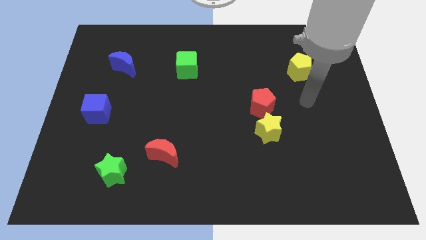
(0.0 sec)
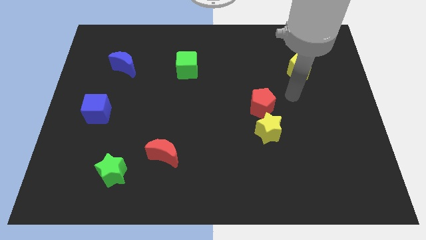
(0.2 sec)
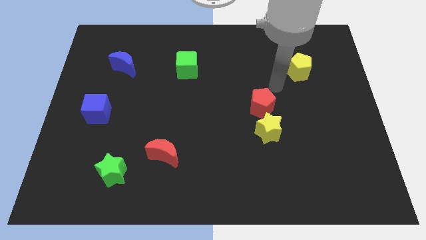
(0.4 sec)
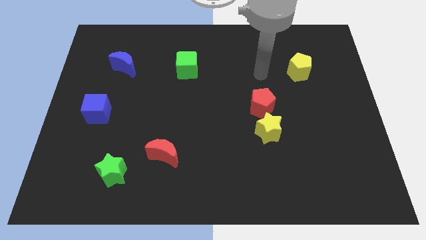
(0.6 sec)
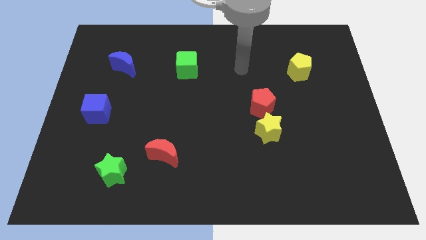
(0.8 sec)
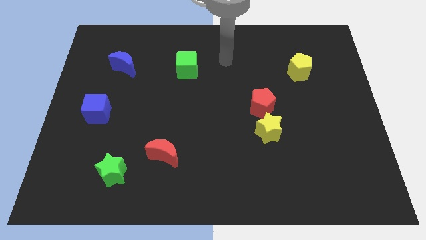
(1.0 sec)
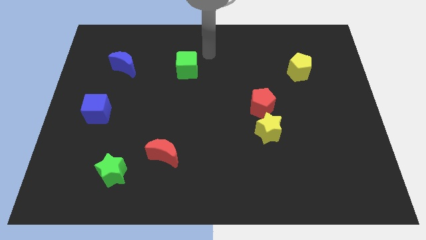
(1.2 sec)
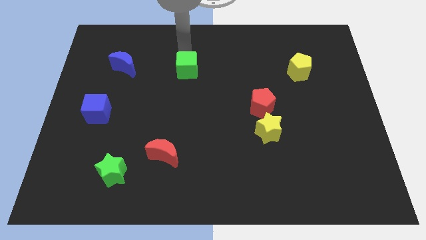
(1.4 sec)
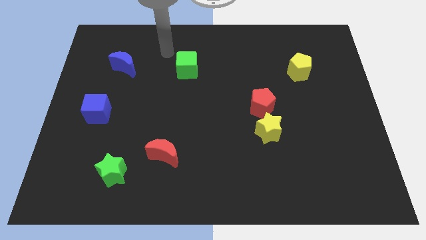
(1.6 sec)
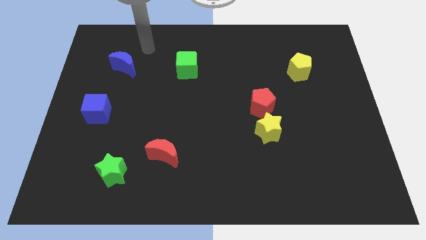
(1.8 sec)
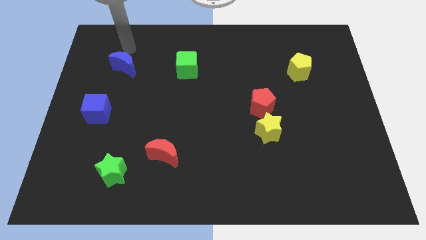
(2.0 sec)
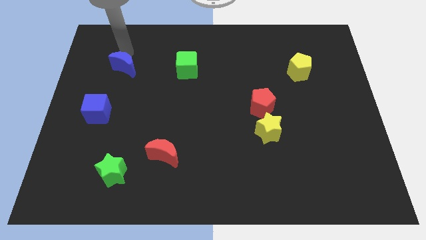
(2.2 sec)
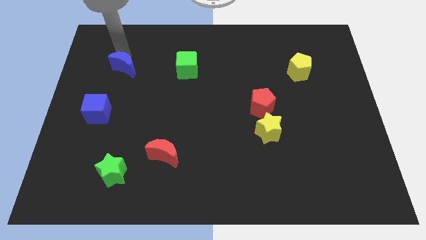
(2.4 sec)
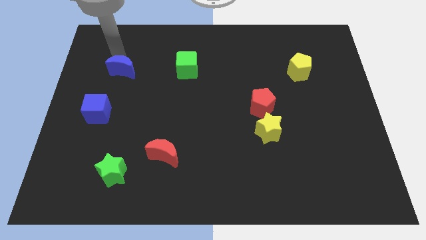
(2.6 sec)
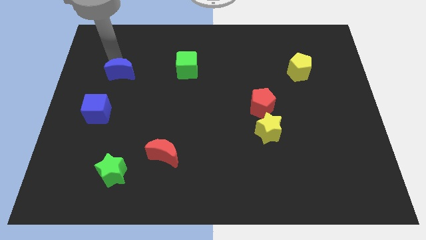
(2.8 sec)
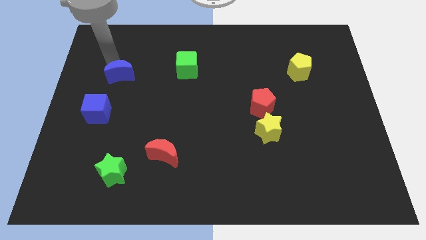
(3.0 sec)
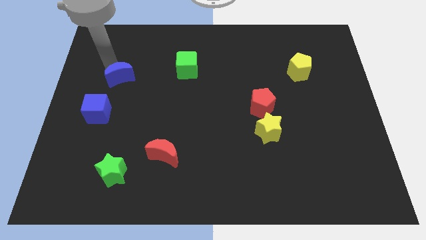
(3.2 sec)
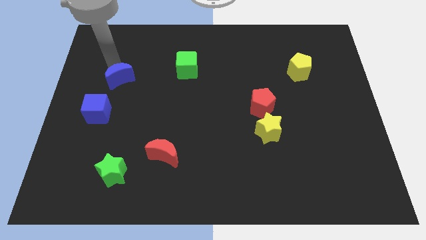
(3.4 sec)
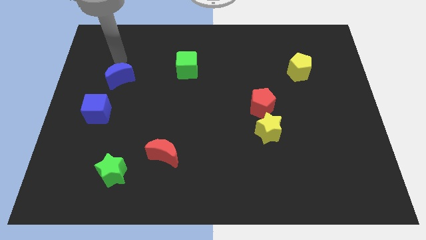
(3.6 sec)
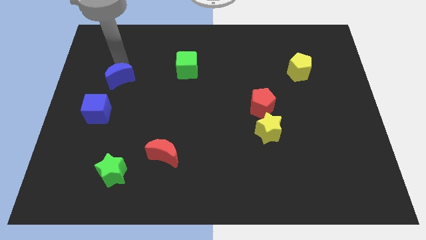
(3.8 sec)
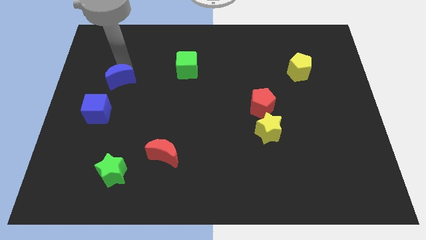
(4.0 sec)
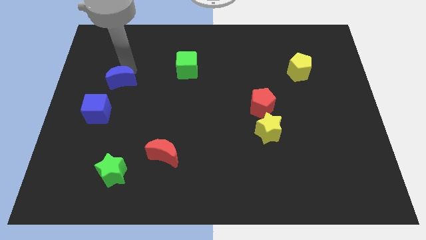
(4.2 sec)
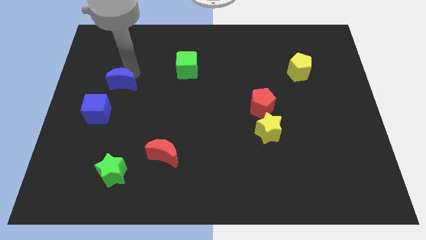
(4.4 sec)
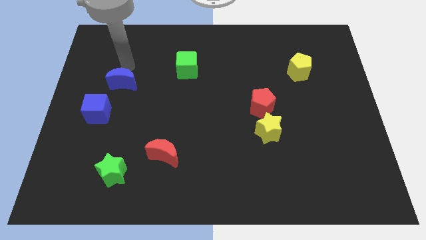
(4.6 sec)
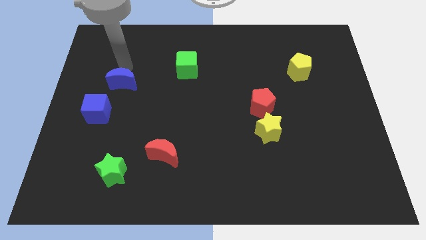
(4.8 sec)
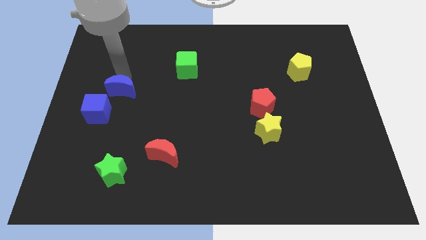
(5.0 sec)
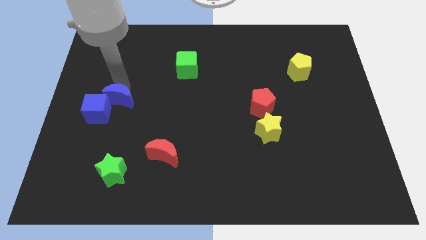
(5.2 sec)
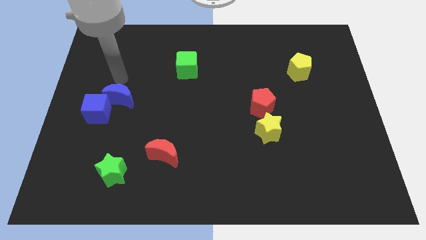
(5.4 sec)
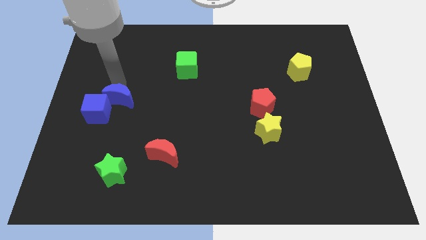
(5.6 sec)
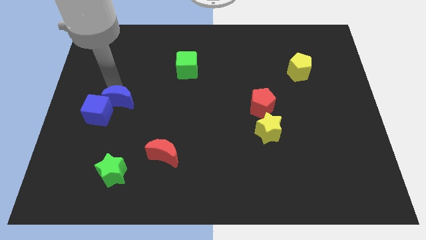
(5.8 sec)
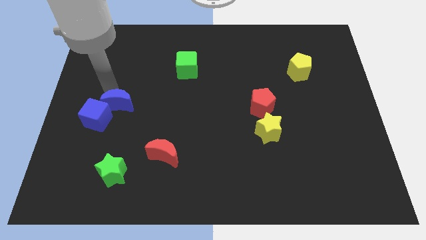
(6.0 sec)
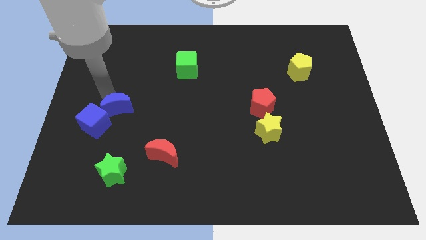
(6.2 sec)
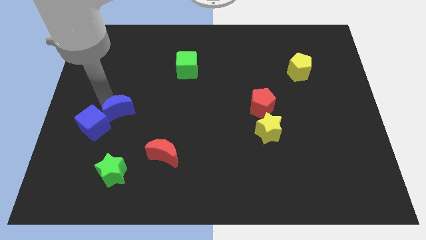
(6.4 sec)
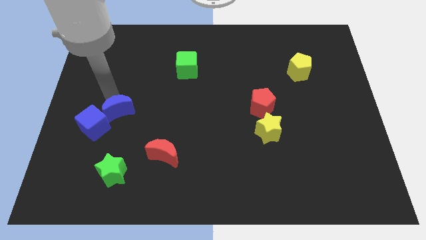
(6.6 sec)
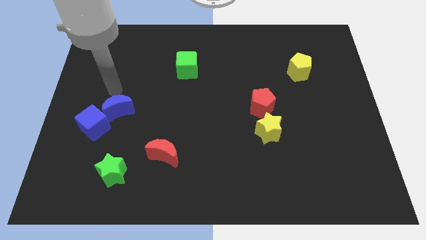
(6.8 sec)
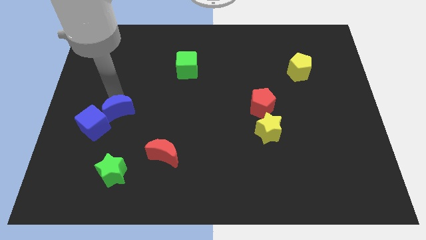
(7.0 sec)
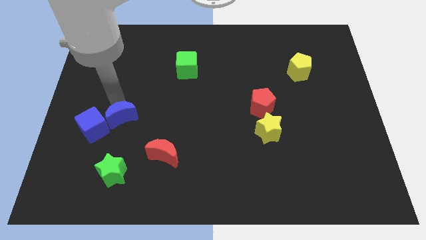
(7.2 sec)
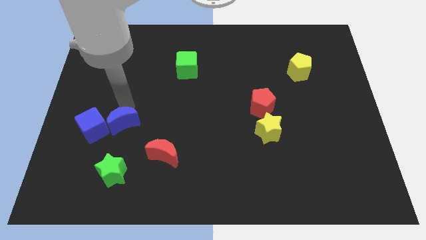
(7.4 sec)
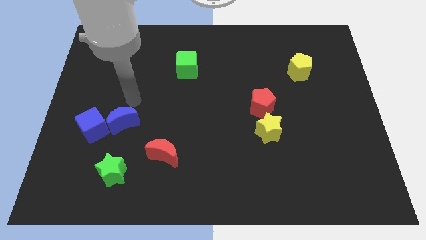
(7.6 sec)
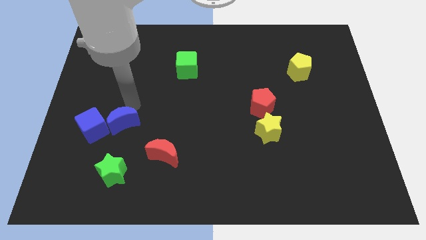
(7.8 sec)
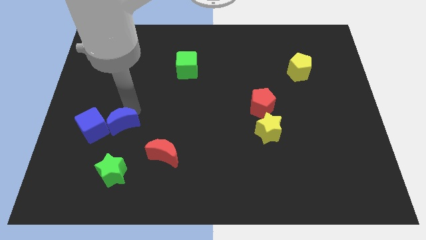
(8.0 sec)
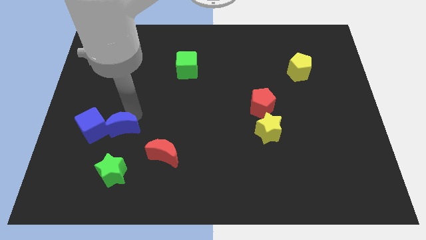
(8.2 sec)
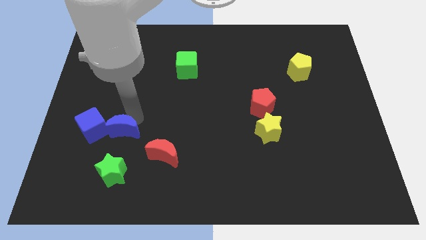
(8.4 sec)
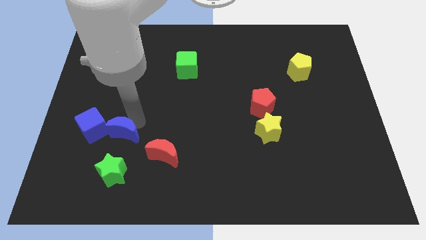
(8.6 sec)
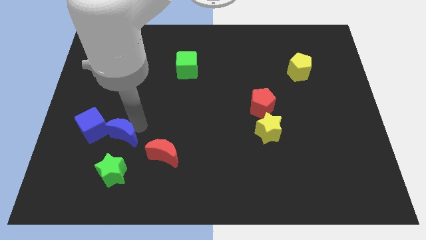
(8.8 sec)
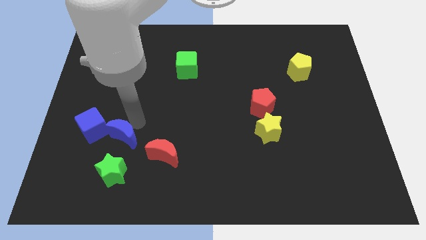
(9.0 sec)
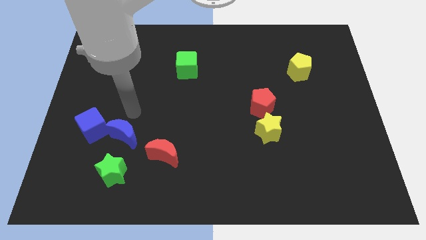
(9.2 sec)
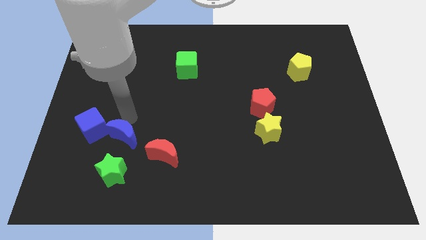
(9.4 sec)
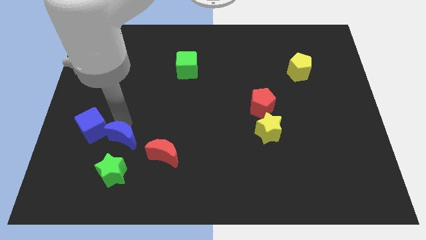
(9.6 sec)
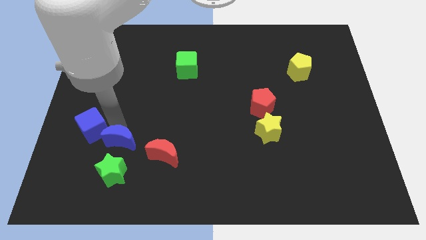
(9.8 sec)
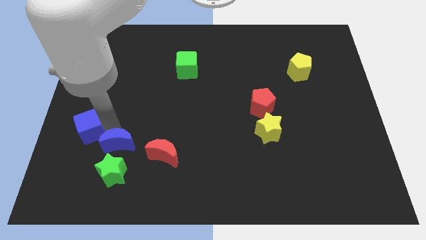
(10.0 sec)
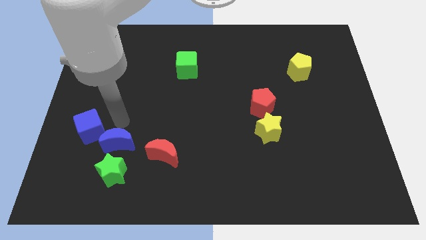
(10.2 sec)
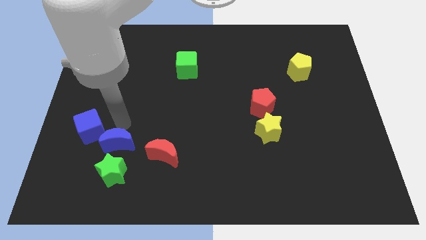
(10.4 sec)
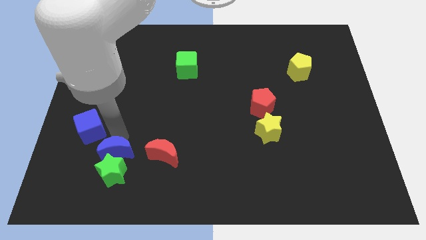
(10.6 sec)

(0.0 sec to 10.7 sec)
push the blue moon towards the green star

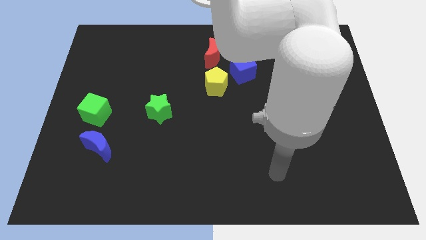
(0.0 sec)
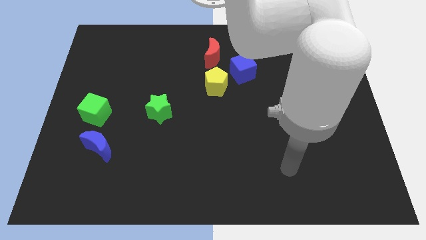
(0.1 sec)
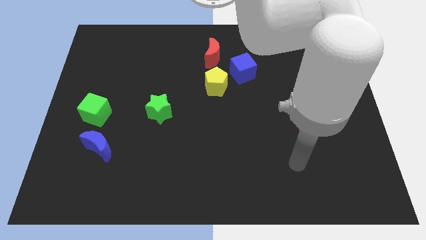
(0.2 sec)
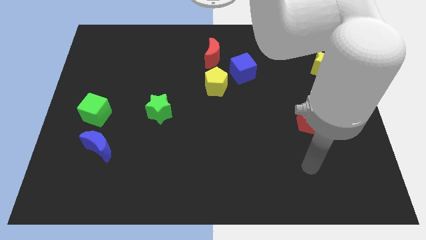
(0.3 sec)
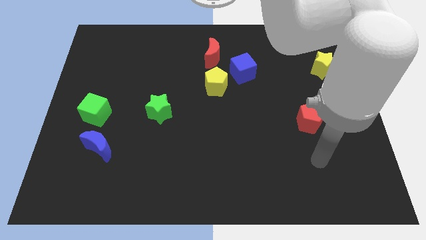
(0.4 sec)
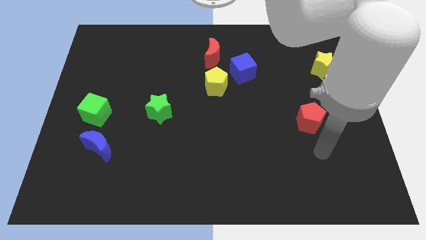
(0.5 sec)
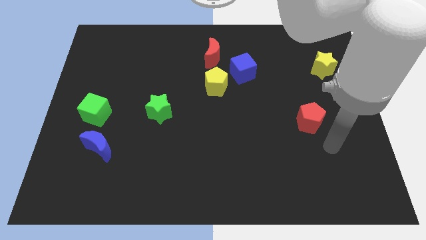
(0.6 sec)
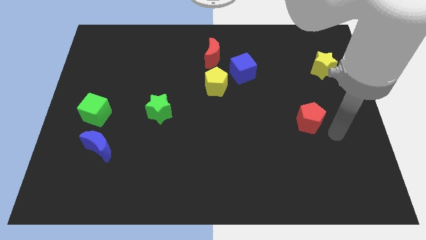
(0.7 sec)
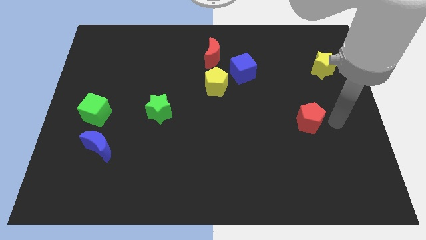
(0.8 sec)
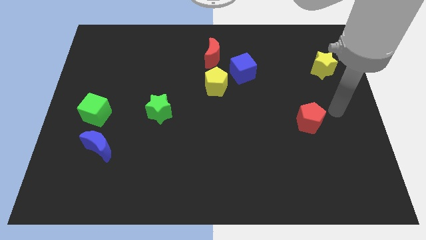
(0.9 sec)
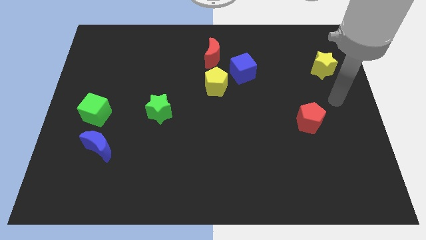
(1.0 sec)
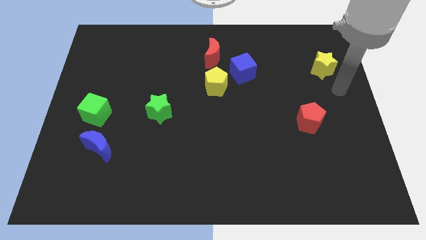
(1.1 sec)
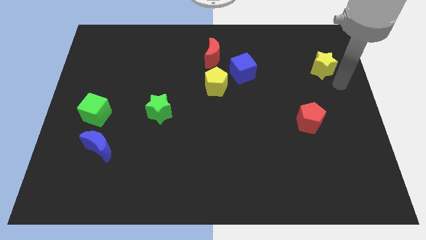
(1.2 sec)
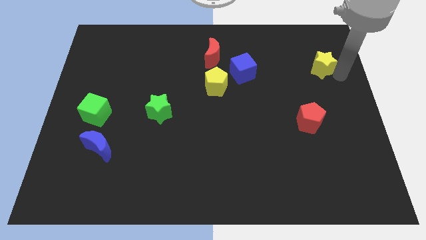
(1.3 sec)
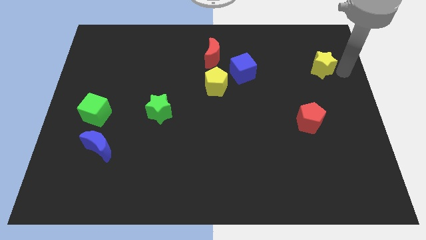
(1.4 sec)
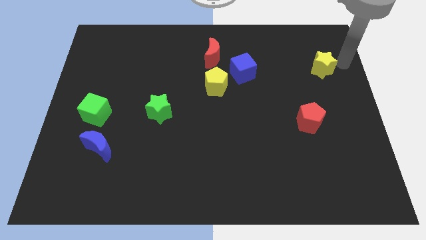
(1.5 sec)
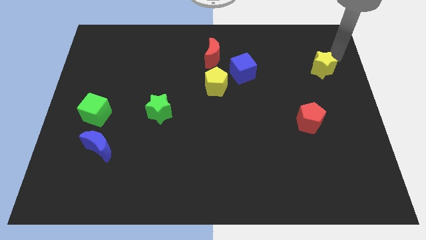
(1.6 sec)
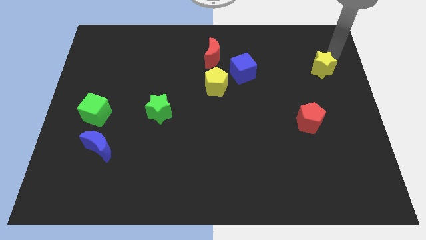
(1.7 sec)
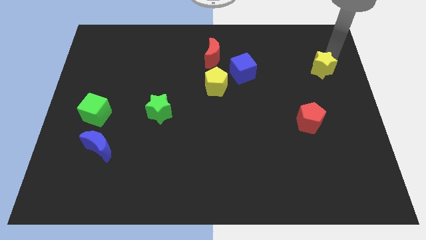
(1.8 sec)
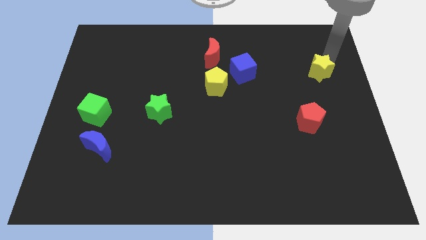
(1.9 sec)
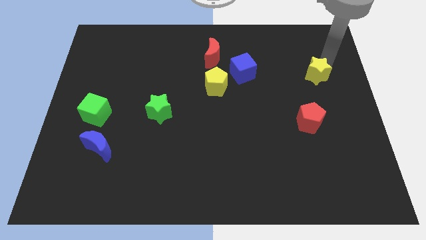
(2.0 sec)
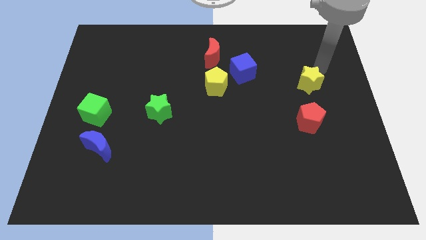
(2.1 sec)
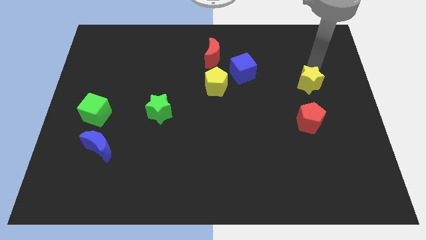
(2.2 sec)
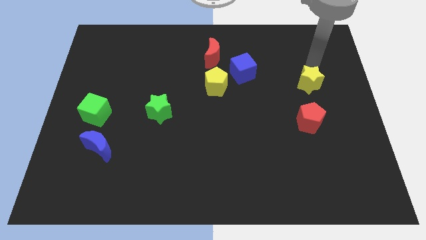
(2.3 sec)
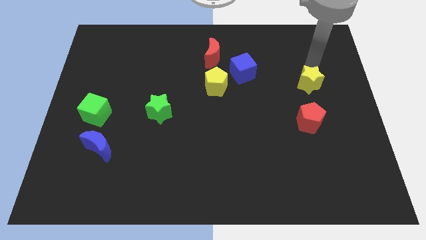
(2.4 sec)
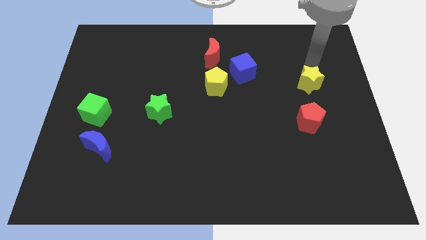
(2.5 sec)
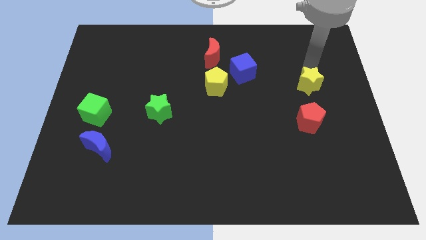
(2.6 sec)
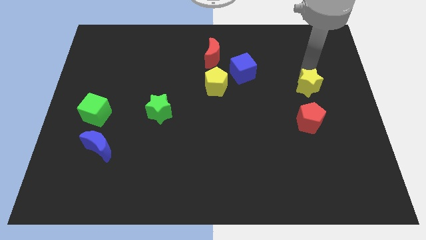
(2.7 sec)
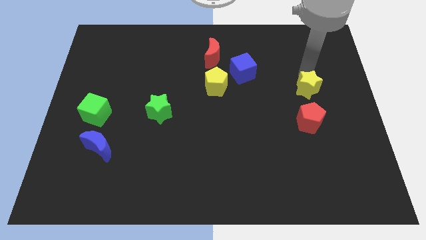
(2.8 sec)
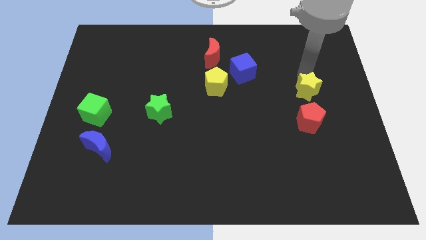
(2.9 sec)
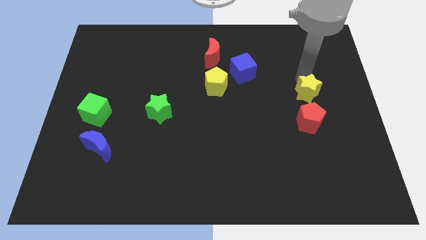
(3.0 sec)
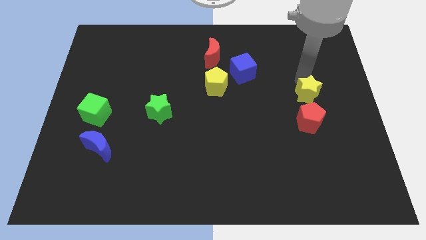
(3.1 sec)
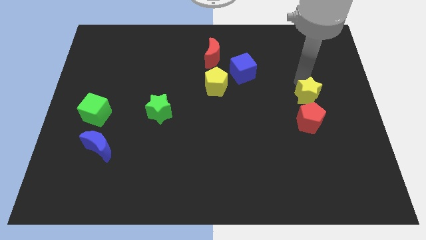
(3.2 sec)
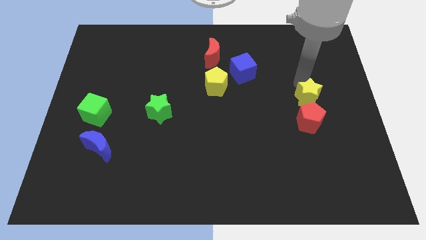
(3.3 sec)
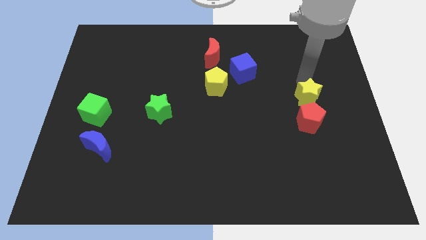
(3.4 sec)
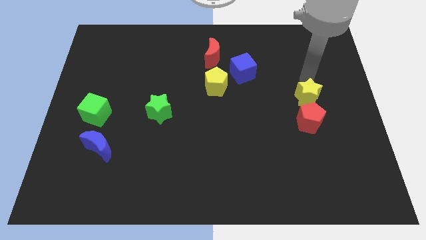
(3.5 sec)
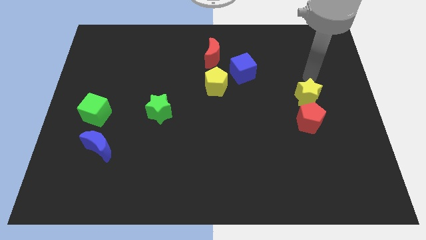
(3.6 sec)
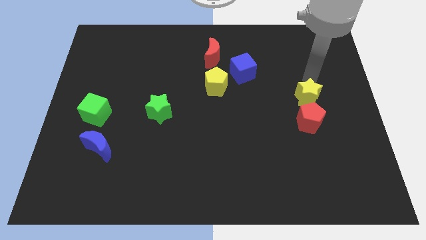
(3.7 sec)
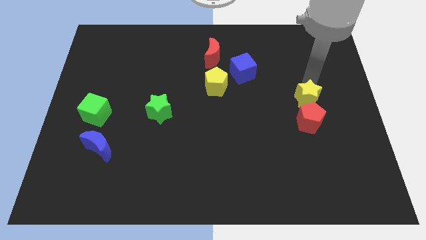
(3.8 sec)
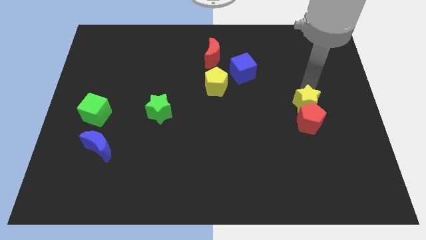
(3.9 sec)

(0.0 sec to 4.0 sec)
push the yellow star towards the red pentagon
